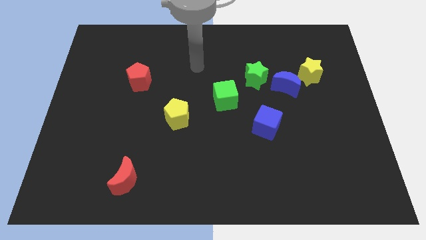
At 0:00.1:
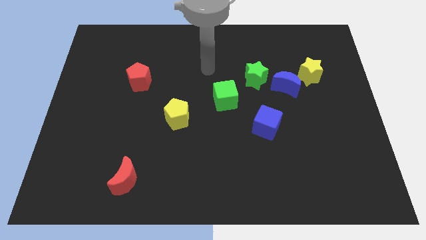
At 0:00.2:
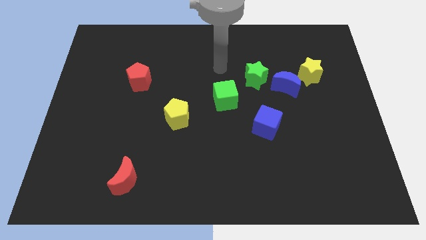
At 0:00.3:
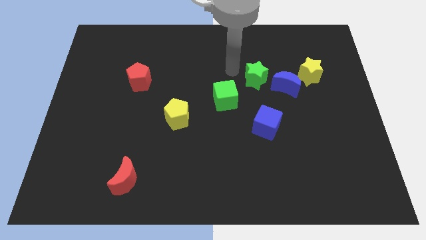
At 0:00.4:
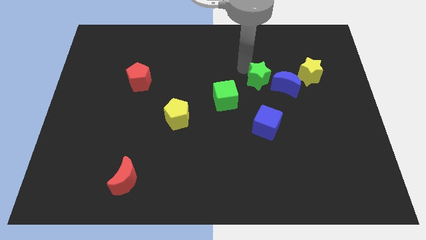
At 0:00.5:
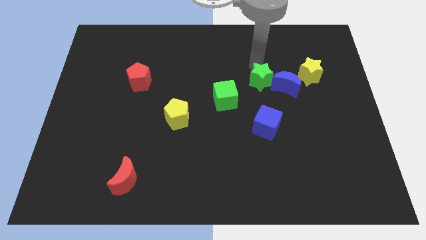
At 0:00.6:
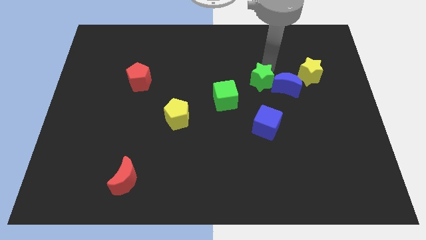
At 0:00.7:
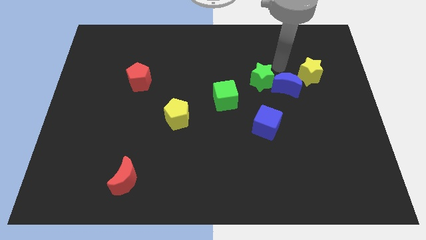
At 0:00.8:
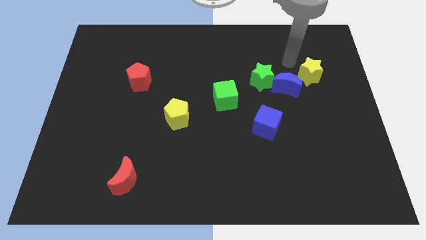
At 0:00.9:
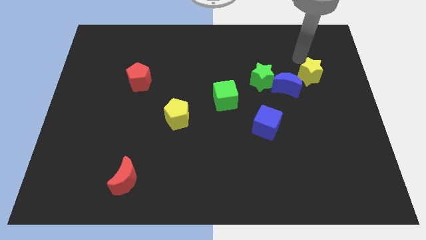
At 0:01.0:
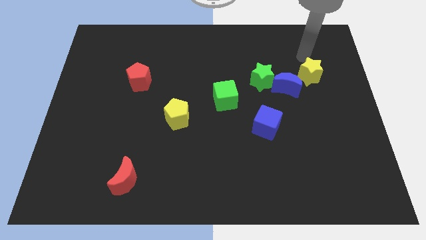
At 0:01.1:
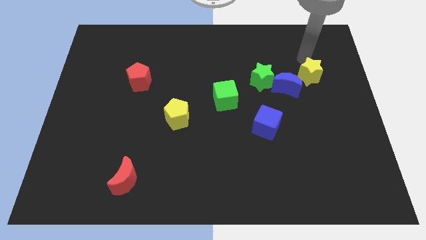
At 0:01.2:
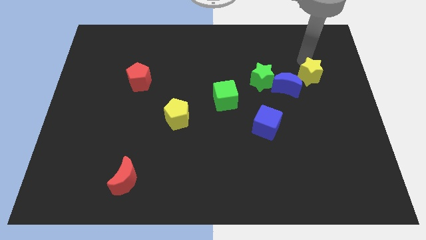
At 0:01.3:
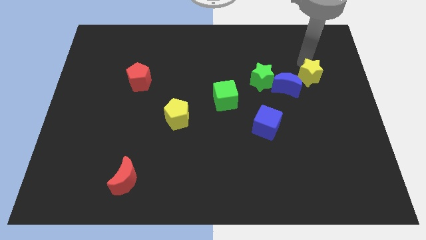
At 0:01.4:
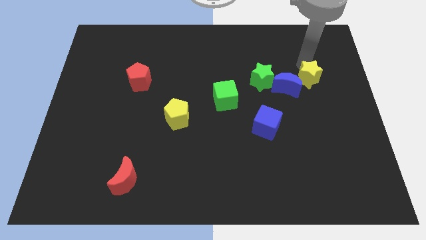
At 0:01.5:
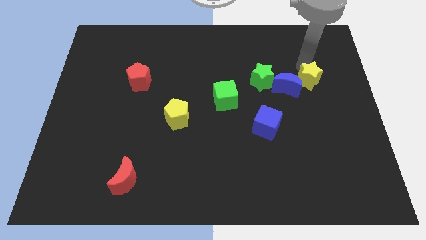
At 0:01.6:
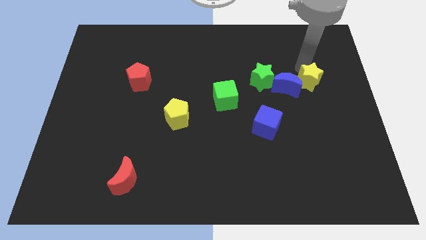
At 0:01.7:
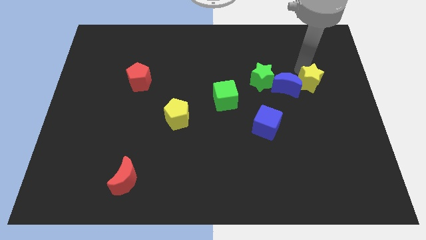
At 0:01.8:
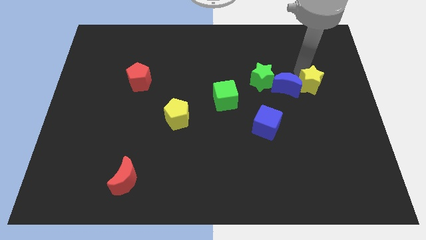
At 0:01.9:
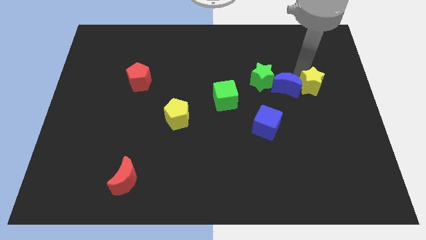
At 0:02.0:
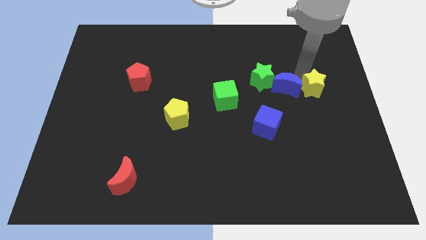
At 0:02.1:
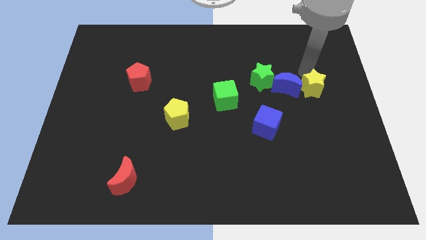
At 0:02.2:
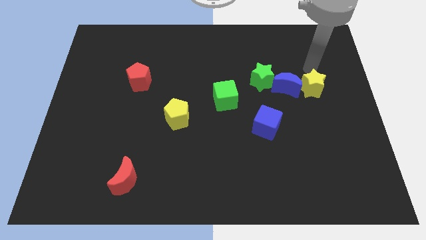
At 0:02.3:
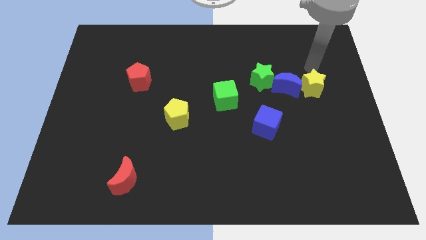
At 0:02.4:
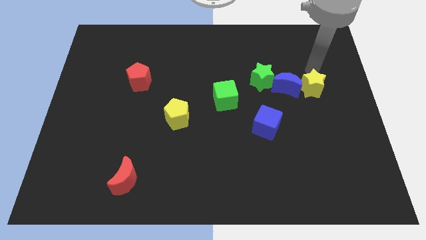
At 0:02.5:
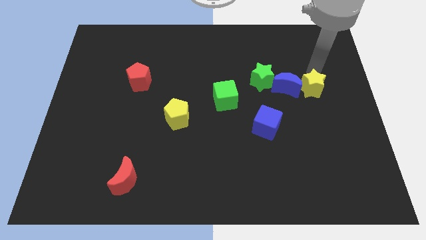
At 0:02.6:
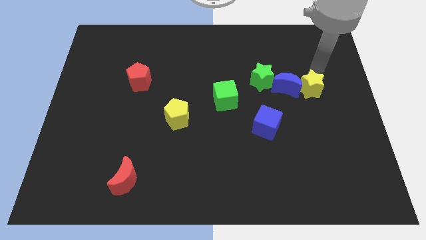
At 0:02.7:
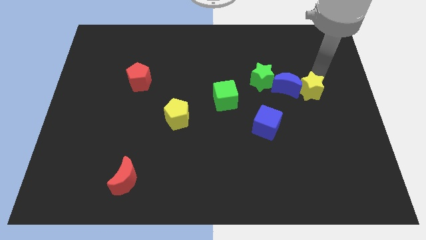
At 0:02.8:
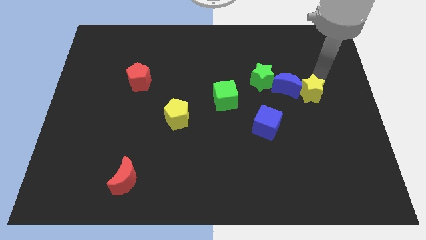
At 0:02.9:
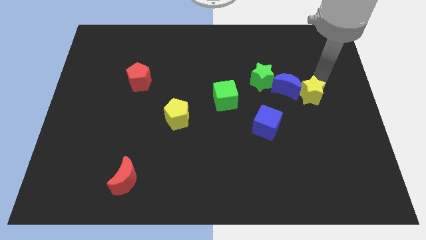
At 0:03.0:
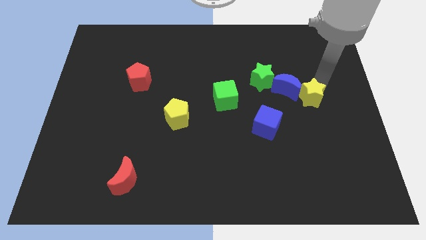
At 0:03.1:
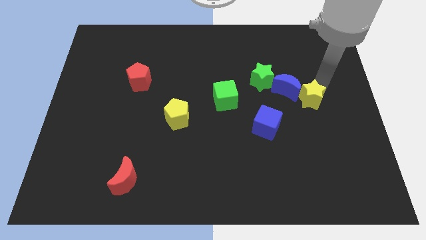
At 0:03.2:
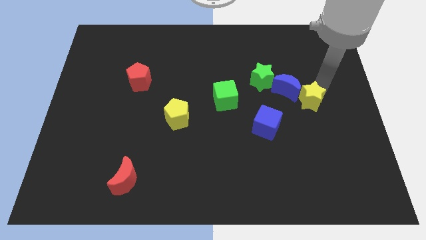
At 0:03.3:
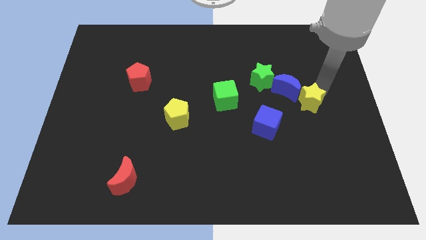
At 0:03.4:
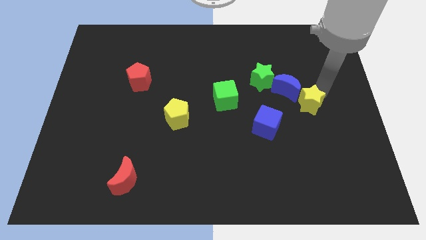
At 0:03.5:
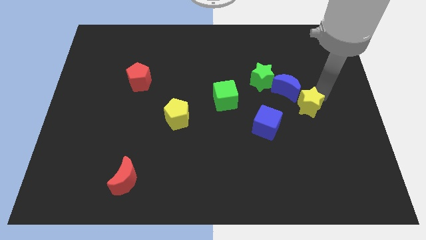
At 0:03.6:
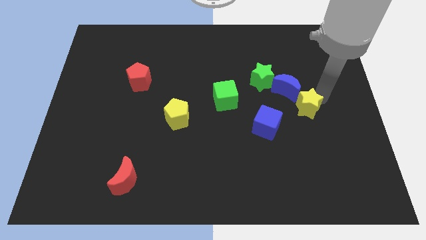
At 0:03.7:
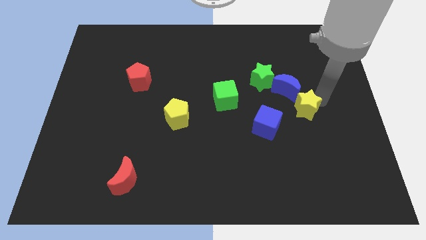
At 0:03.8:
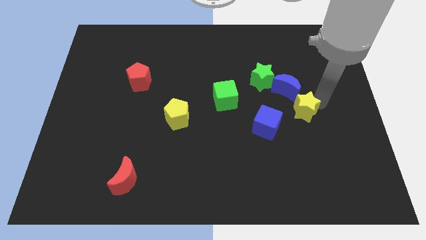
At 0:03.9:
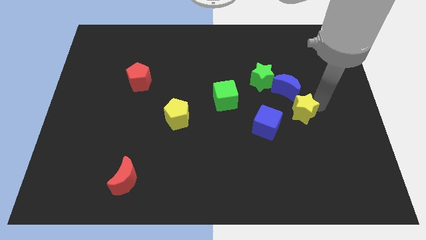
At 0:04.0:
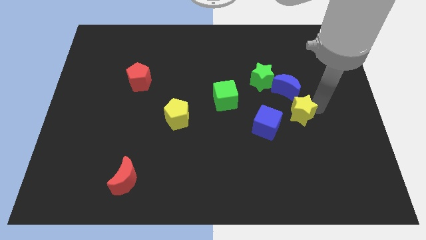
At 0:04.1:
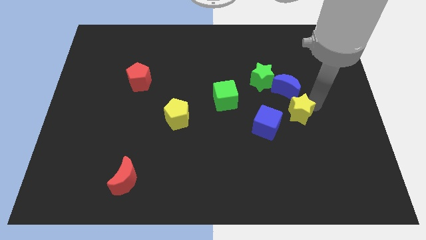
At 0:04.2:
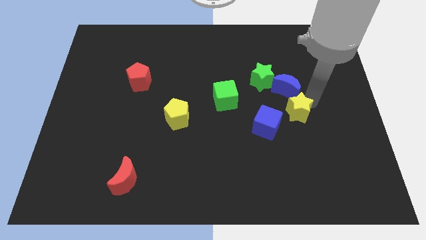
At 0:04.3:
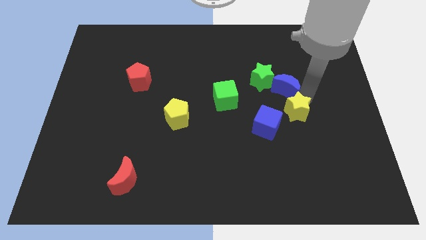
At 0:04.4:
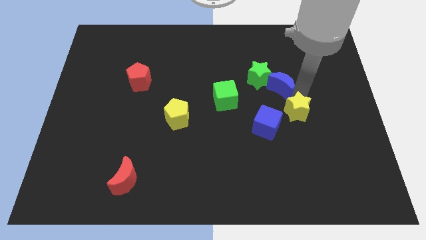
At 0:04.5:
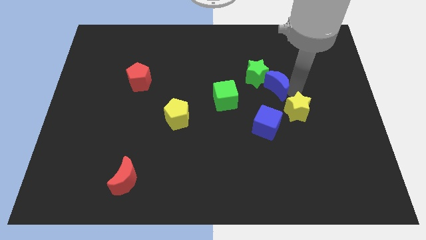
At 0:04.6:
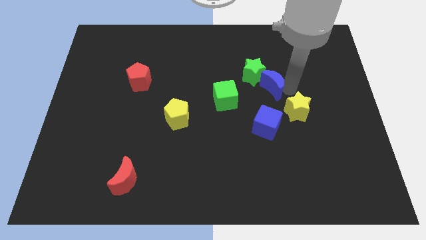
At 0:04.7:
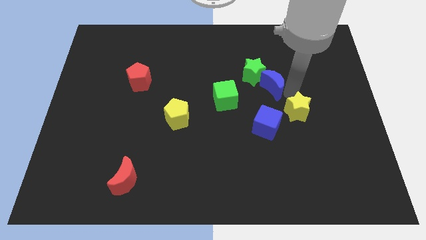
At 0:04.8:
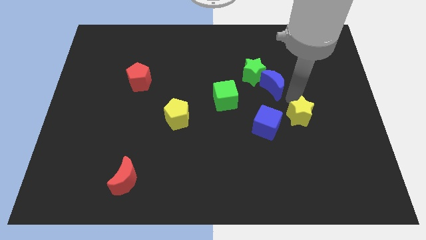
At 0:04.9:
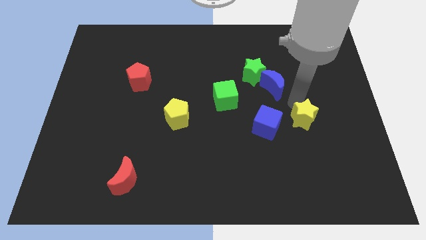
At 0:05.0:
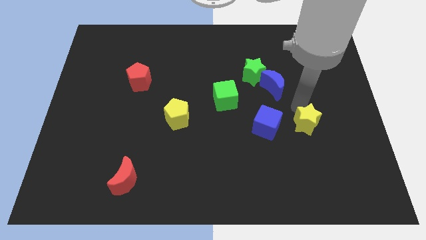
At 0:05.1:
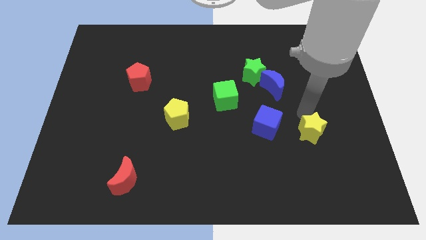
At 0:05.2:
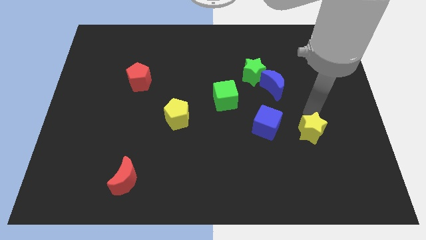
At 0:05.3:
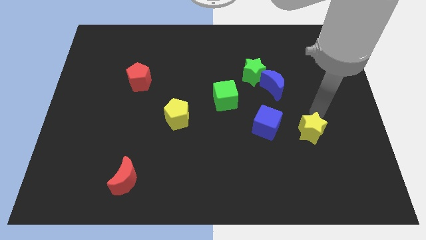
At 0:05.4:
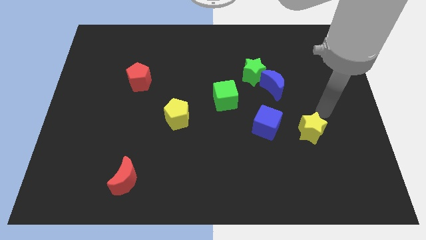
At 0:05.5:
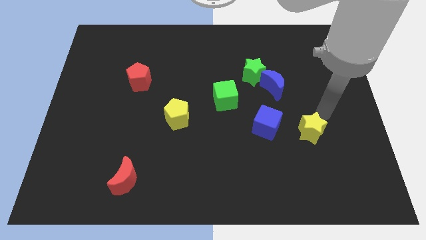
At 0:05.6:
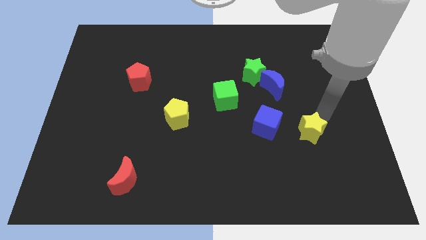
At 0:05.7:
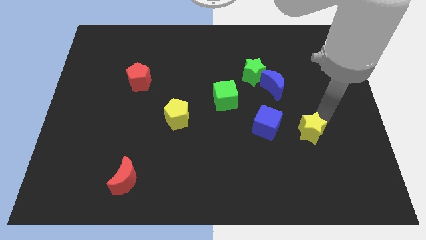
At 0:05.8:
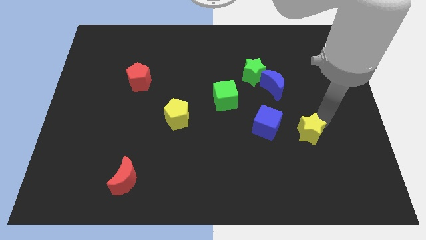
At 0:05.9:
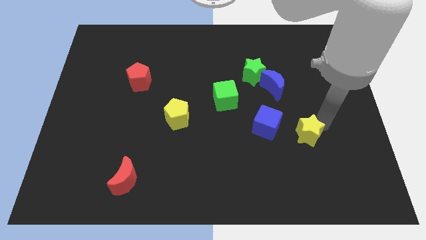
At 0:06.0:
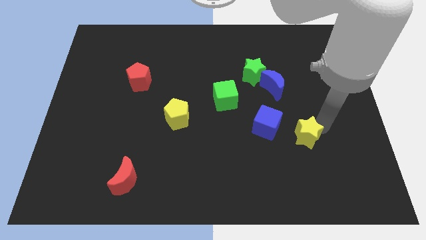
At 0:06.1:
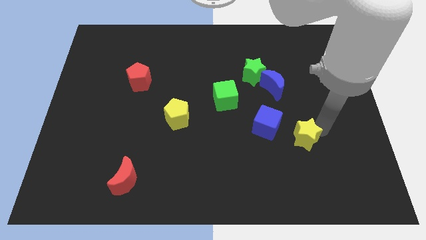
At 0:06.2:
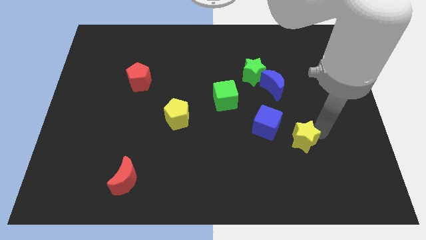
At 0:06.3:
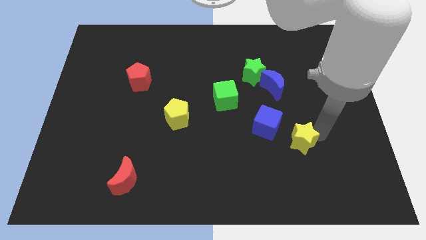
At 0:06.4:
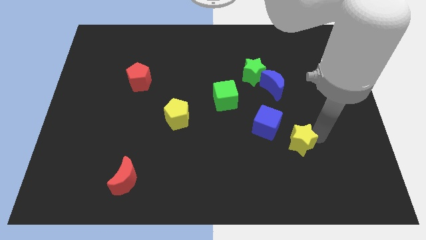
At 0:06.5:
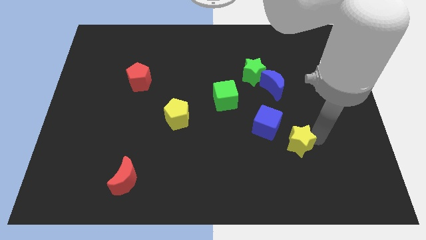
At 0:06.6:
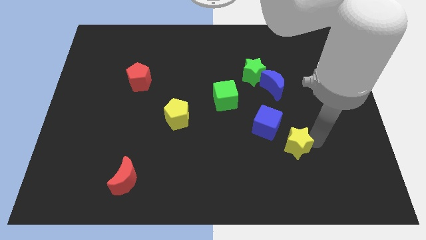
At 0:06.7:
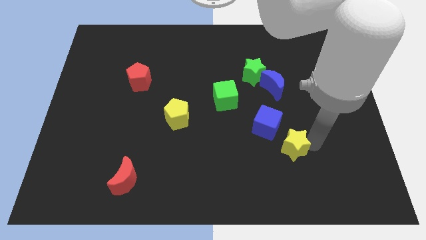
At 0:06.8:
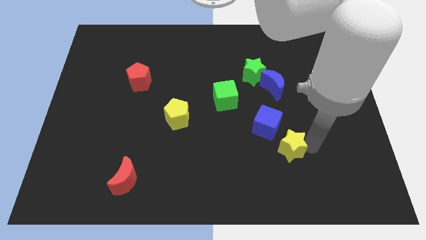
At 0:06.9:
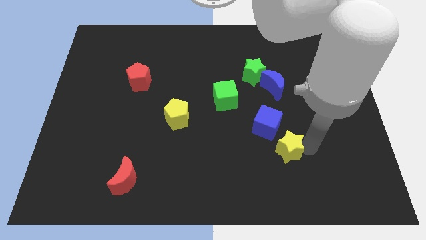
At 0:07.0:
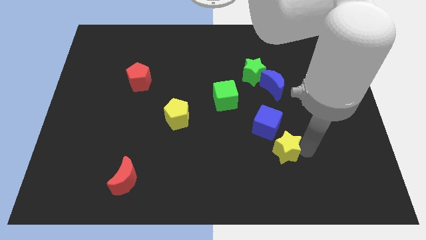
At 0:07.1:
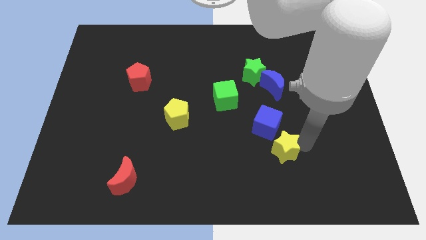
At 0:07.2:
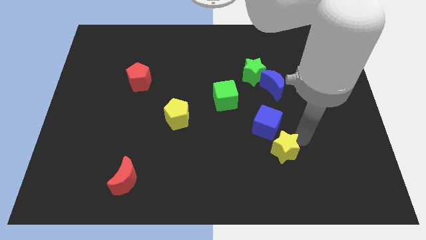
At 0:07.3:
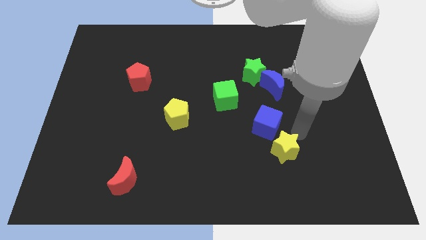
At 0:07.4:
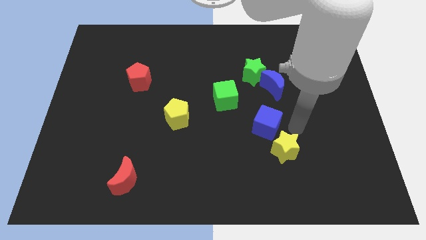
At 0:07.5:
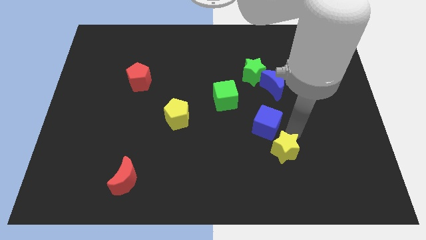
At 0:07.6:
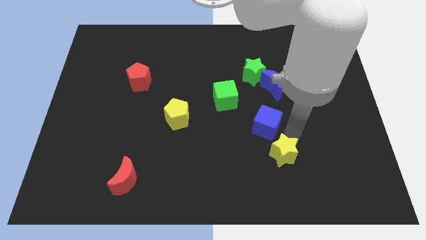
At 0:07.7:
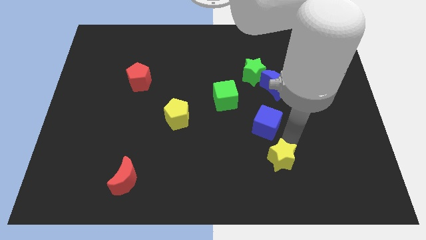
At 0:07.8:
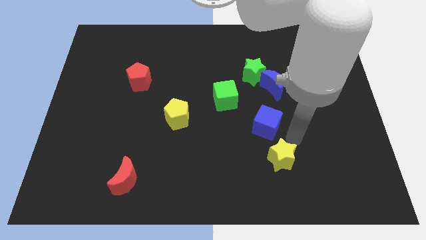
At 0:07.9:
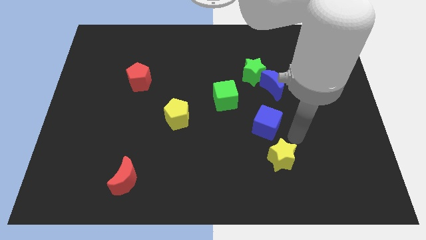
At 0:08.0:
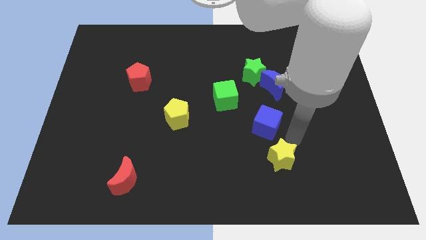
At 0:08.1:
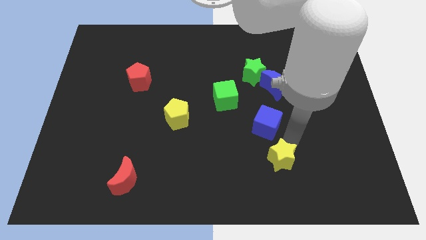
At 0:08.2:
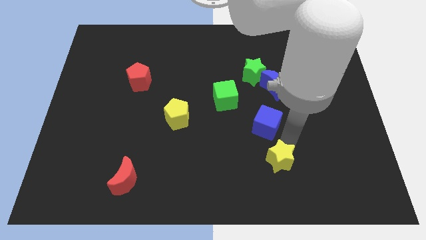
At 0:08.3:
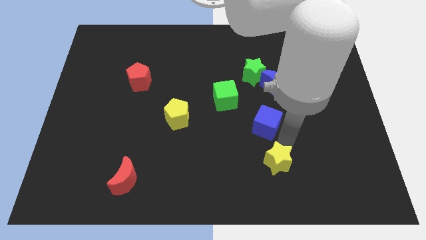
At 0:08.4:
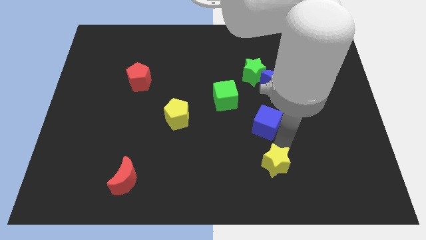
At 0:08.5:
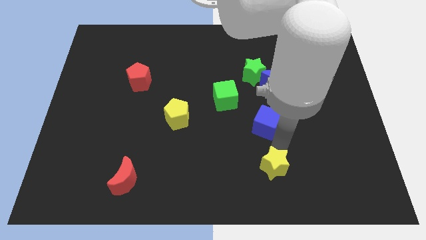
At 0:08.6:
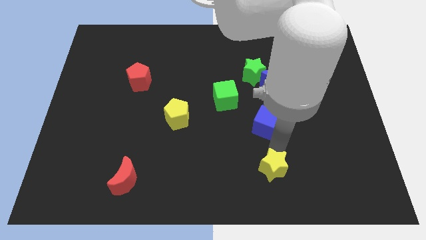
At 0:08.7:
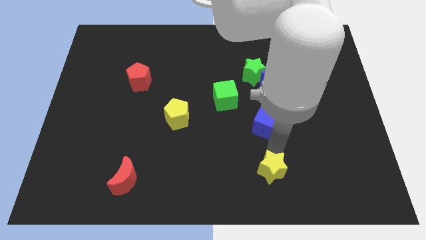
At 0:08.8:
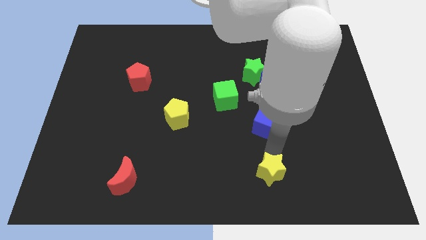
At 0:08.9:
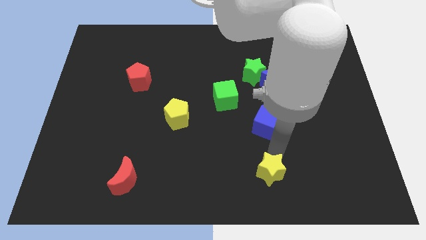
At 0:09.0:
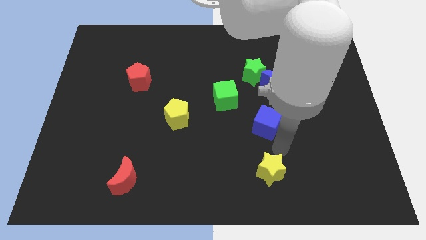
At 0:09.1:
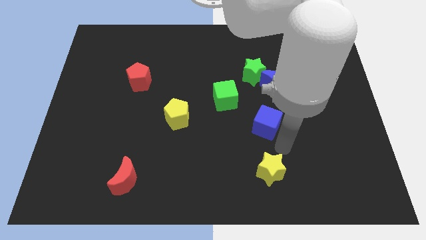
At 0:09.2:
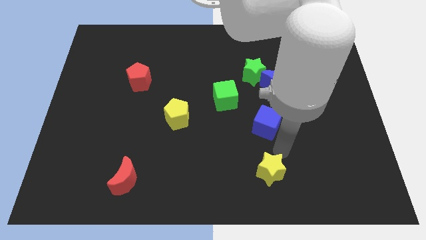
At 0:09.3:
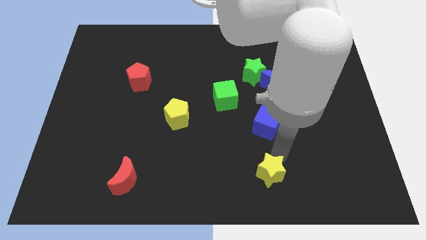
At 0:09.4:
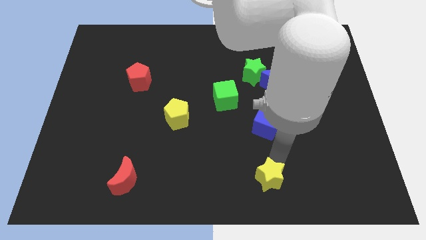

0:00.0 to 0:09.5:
slide the yellow star to the bottom side
